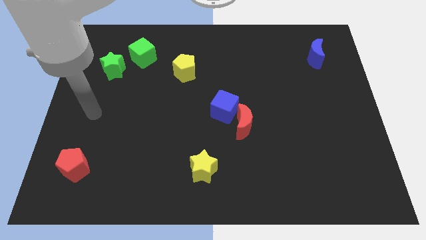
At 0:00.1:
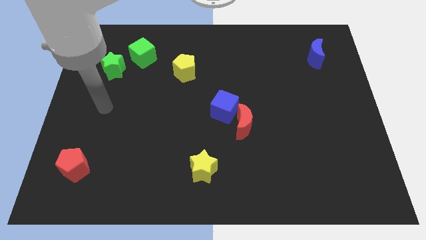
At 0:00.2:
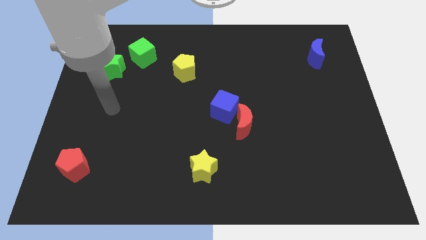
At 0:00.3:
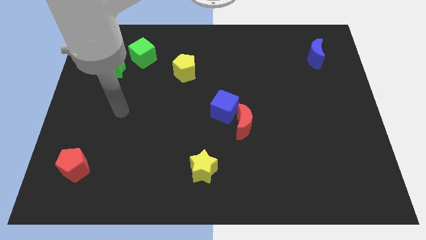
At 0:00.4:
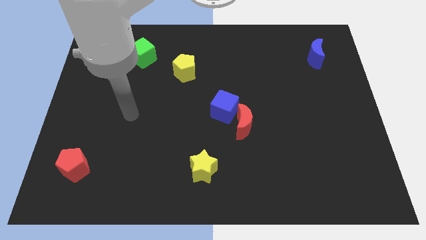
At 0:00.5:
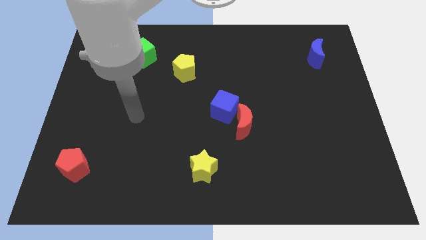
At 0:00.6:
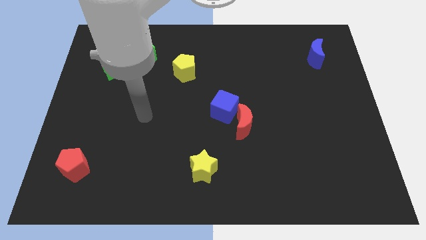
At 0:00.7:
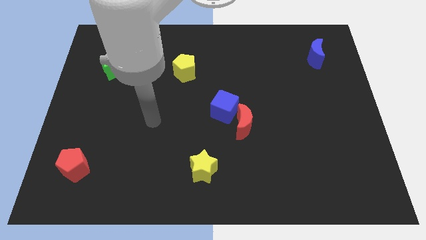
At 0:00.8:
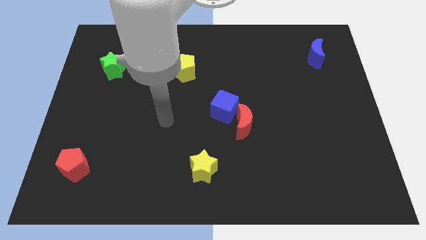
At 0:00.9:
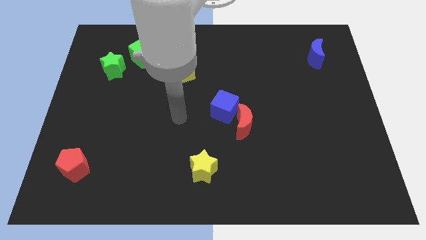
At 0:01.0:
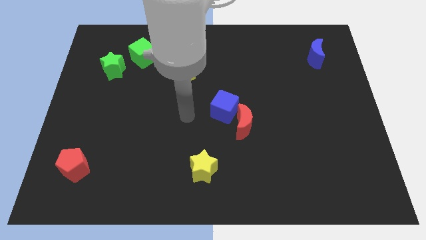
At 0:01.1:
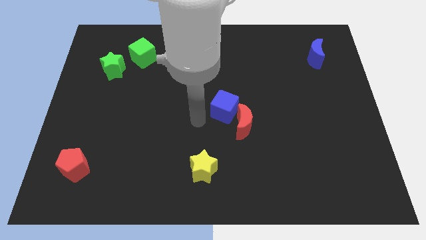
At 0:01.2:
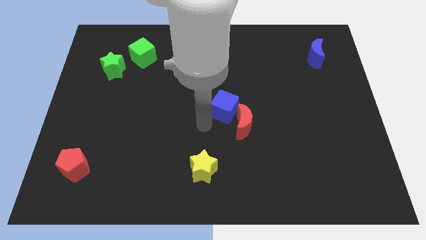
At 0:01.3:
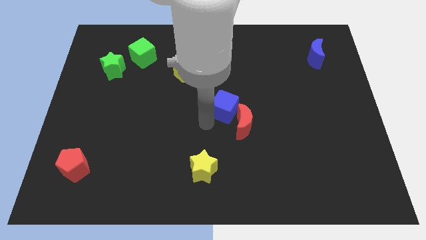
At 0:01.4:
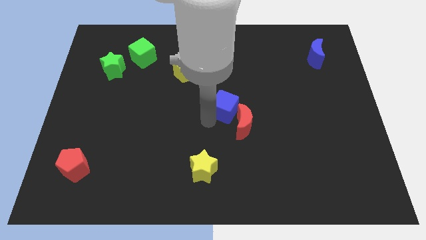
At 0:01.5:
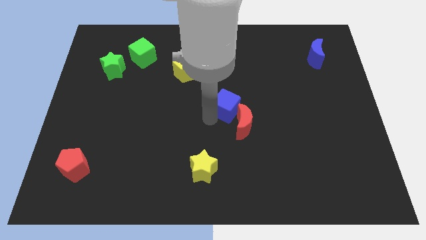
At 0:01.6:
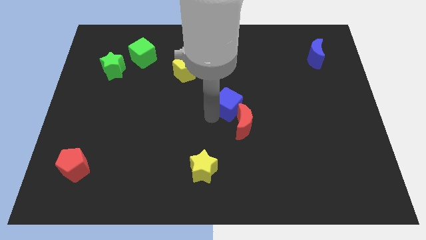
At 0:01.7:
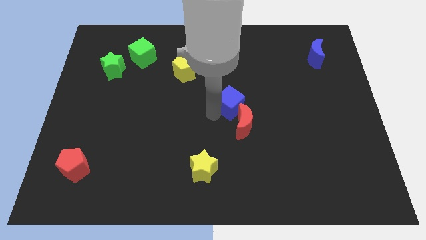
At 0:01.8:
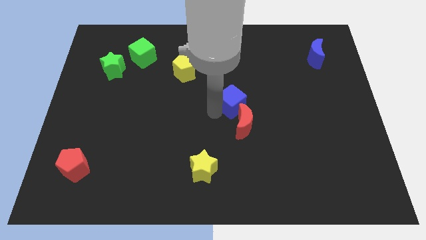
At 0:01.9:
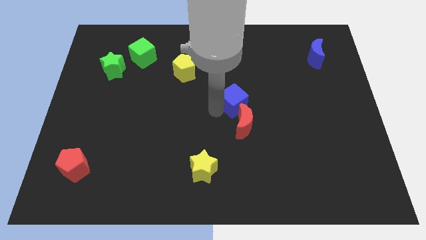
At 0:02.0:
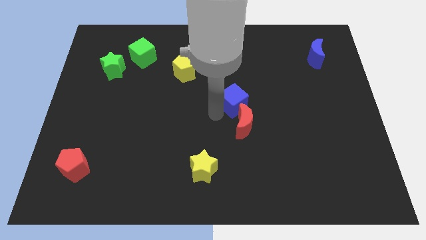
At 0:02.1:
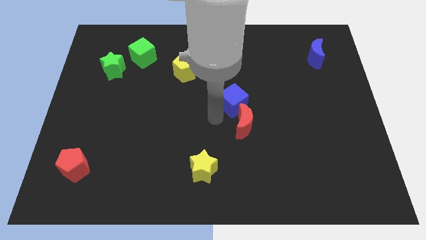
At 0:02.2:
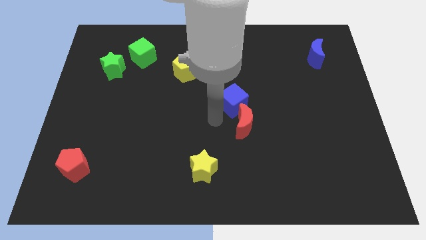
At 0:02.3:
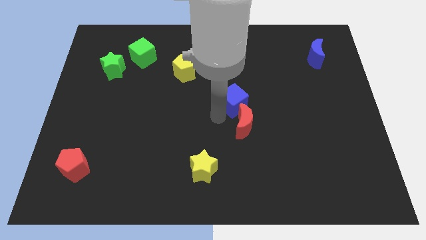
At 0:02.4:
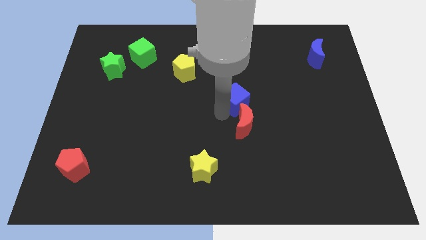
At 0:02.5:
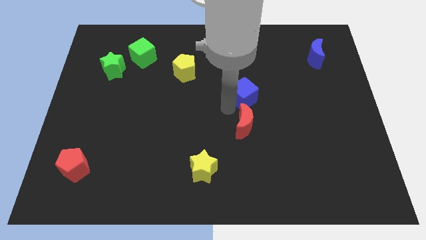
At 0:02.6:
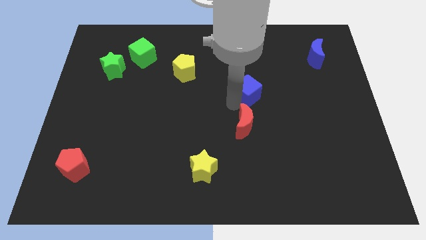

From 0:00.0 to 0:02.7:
move the blue cube upwards and then to the right slightly

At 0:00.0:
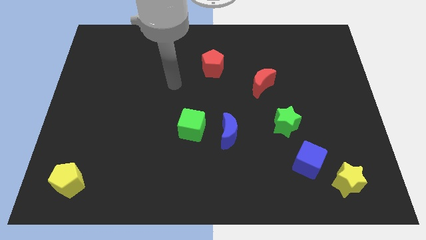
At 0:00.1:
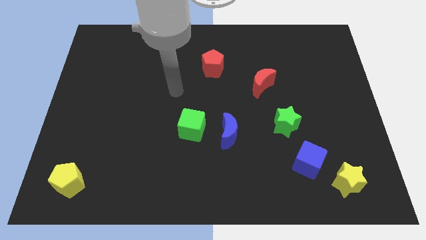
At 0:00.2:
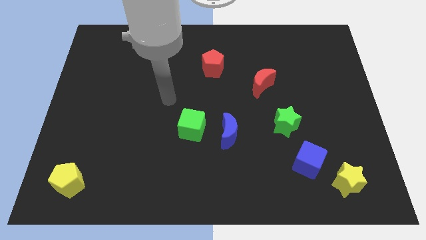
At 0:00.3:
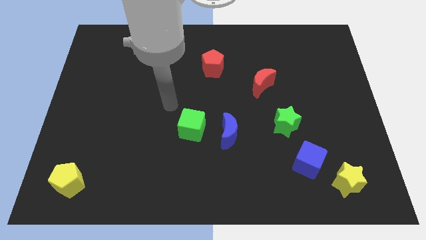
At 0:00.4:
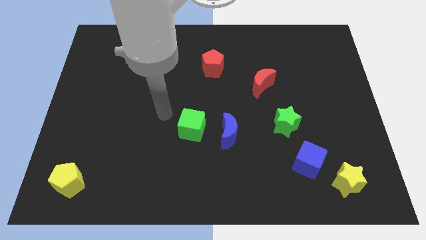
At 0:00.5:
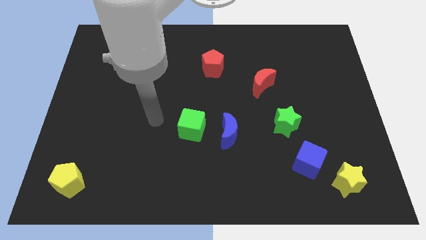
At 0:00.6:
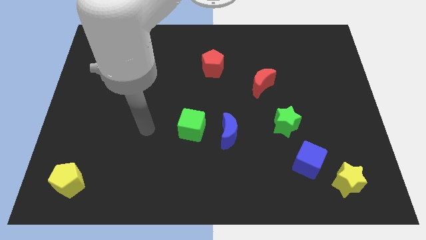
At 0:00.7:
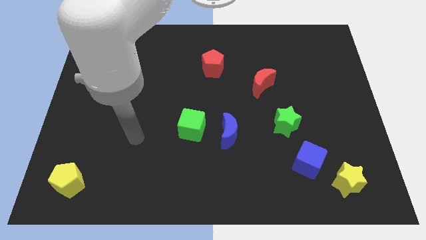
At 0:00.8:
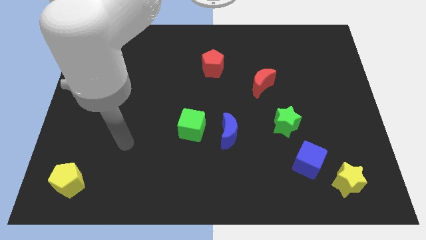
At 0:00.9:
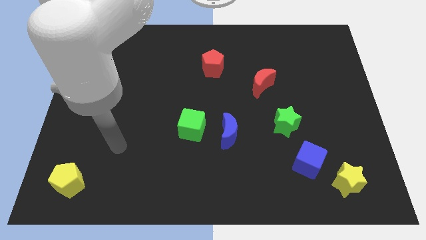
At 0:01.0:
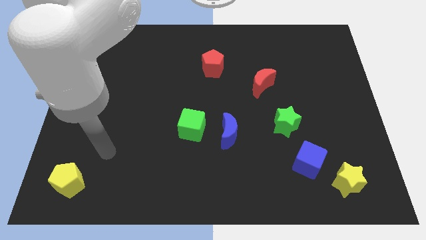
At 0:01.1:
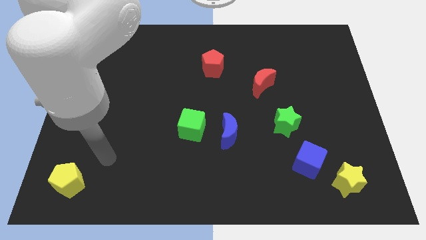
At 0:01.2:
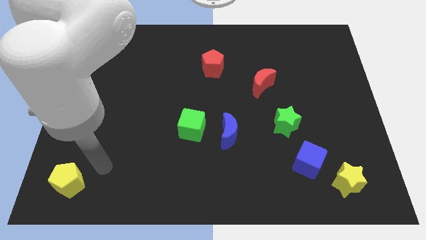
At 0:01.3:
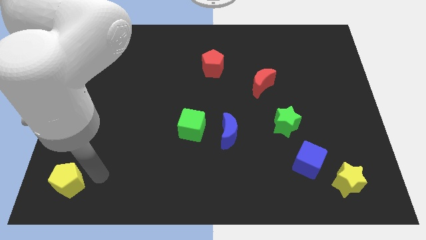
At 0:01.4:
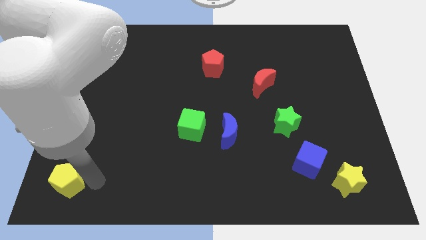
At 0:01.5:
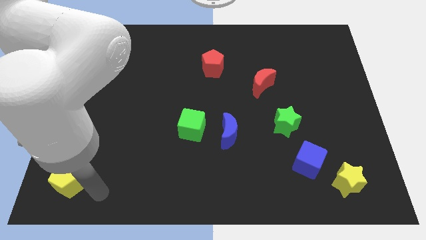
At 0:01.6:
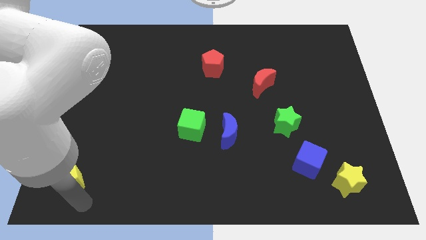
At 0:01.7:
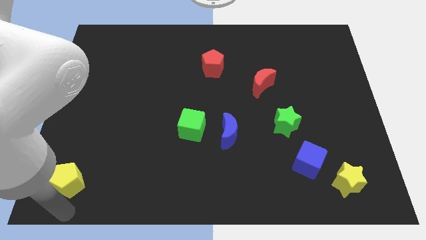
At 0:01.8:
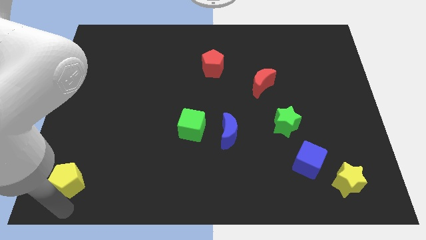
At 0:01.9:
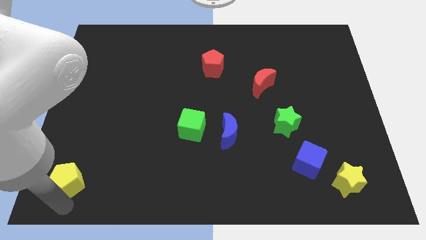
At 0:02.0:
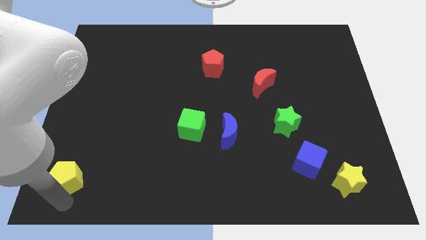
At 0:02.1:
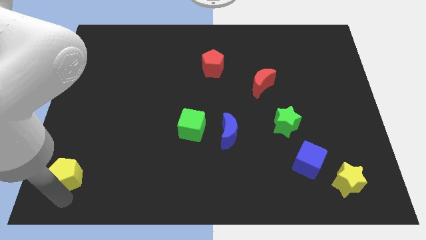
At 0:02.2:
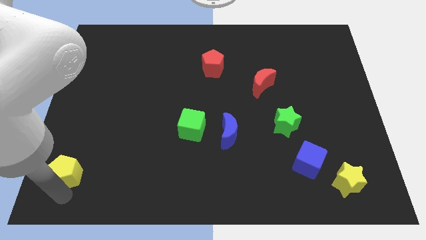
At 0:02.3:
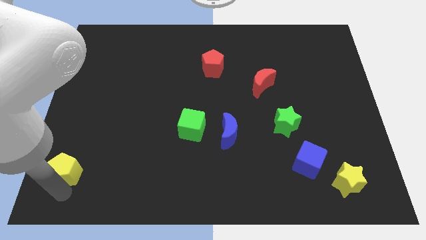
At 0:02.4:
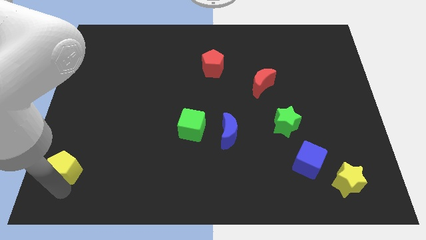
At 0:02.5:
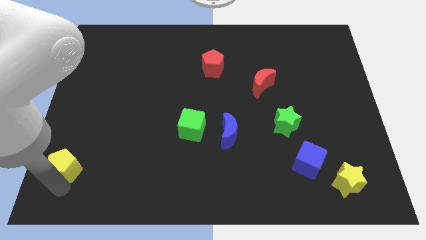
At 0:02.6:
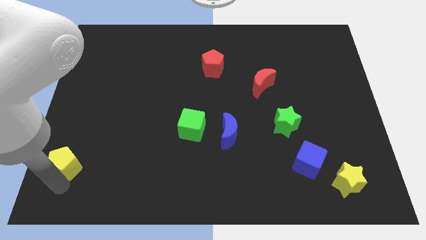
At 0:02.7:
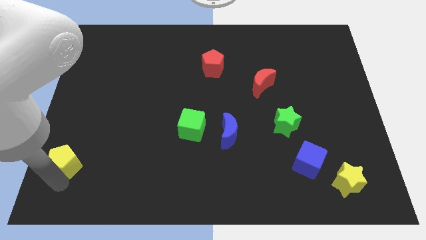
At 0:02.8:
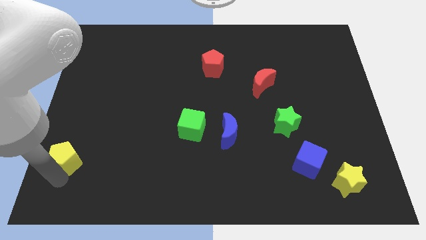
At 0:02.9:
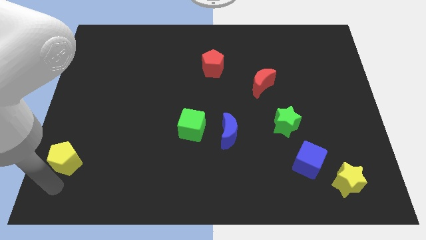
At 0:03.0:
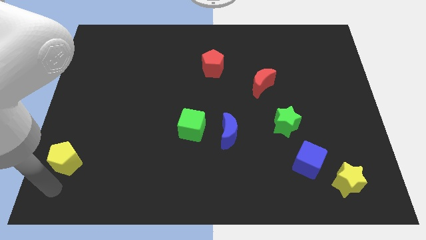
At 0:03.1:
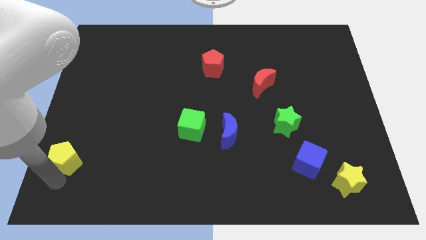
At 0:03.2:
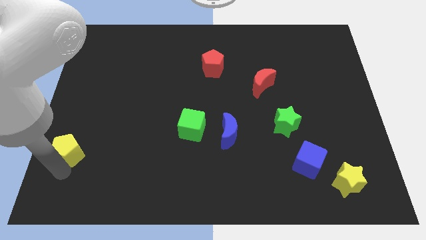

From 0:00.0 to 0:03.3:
slightly move the yellow pentagon upwards

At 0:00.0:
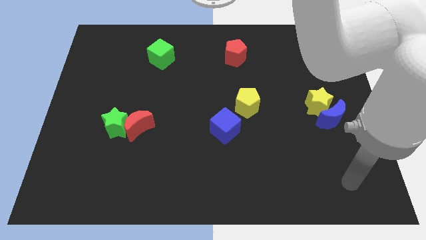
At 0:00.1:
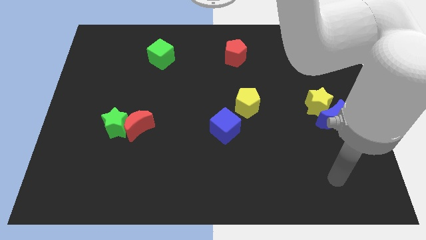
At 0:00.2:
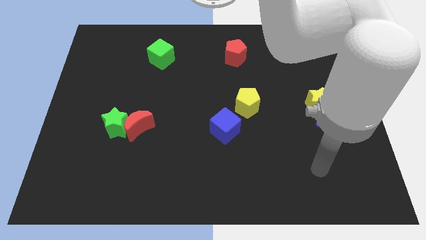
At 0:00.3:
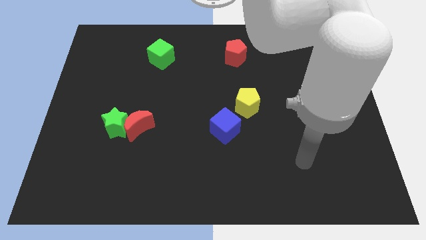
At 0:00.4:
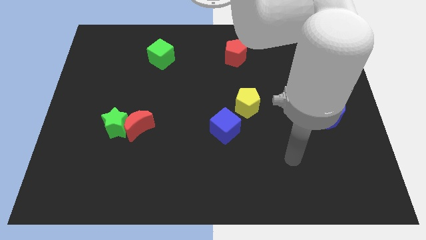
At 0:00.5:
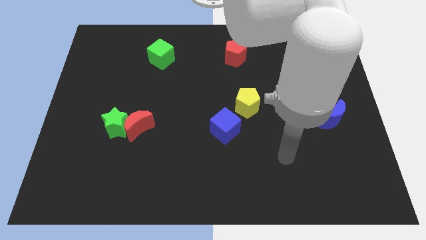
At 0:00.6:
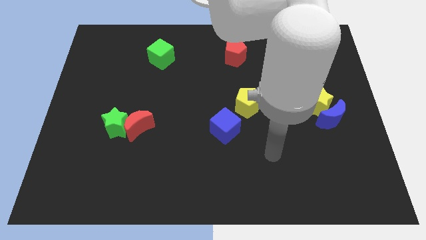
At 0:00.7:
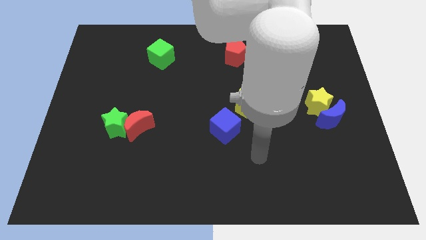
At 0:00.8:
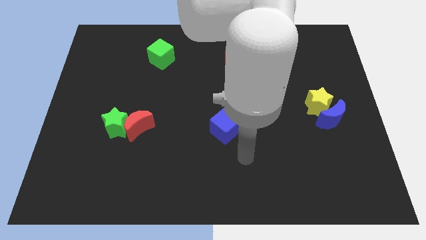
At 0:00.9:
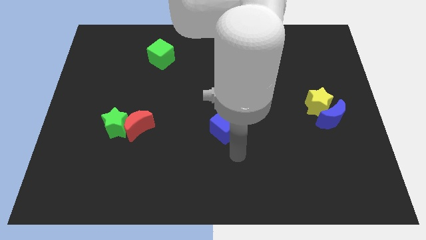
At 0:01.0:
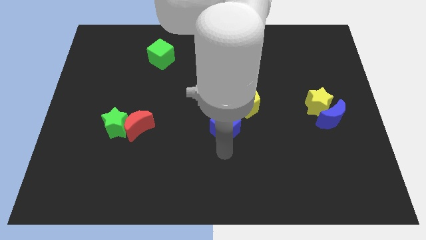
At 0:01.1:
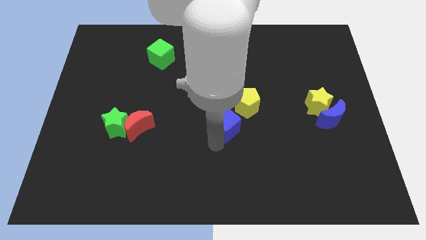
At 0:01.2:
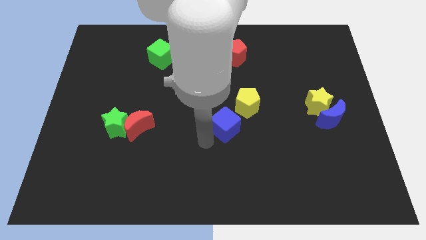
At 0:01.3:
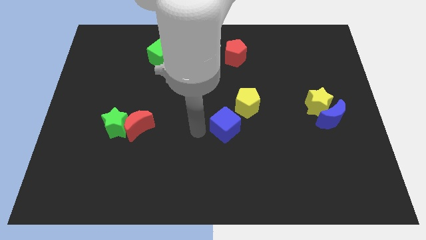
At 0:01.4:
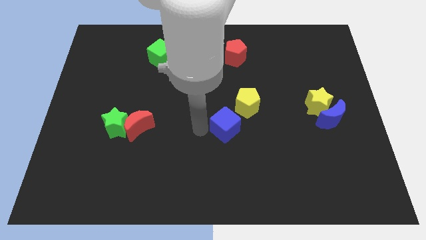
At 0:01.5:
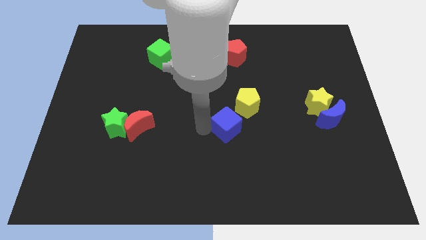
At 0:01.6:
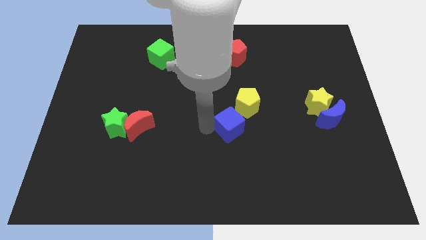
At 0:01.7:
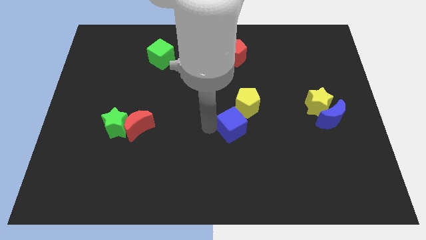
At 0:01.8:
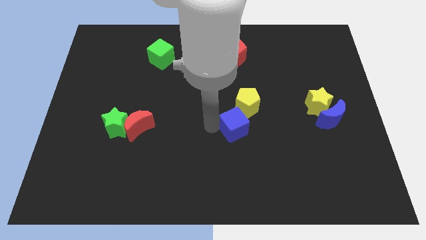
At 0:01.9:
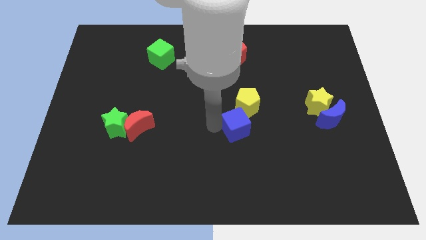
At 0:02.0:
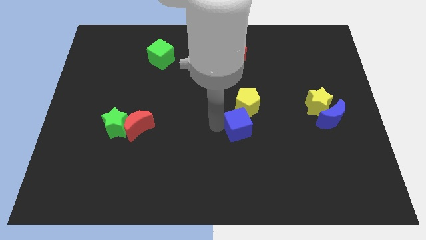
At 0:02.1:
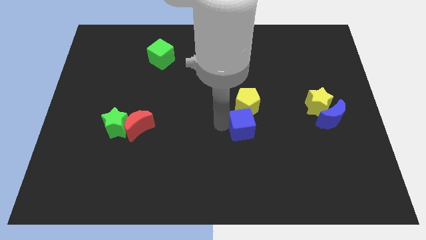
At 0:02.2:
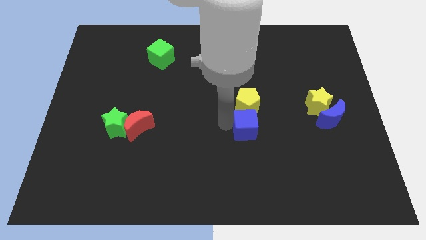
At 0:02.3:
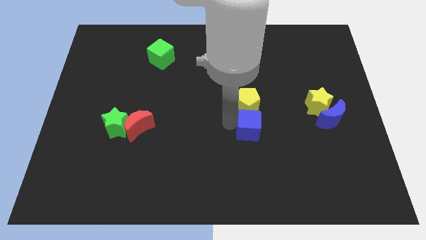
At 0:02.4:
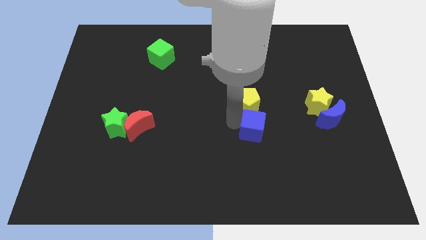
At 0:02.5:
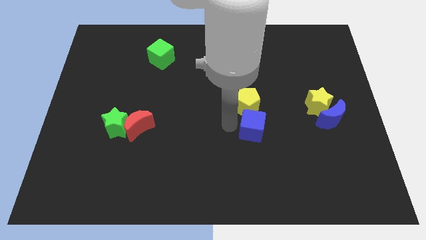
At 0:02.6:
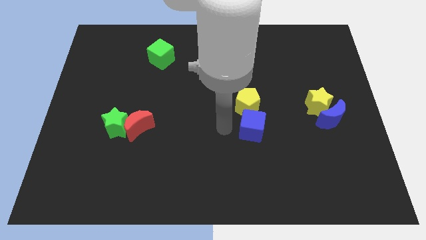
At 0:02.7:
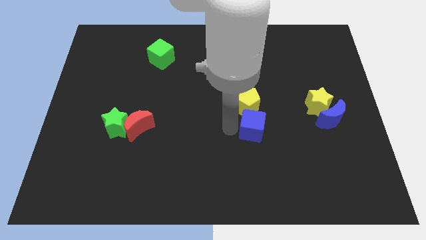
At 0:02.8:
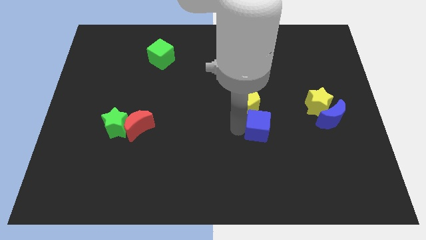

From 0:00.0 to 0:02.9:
move the blue cube somewhat to the right
